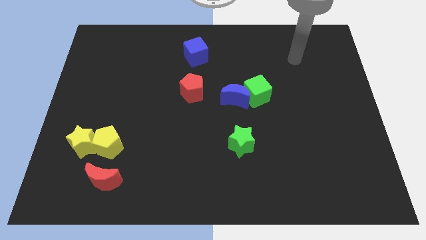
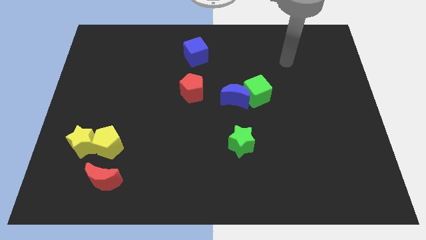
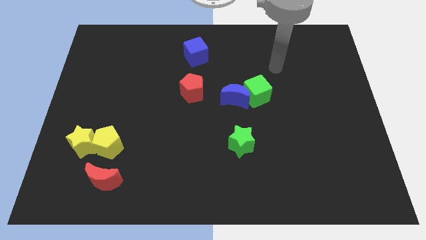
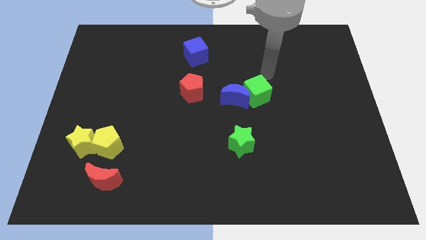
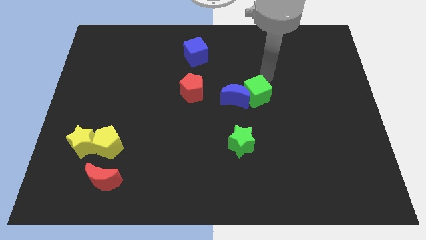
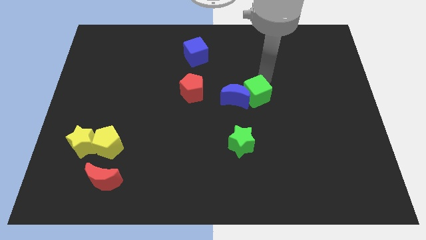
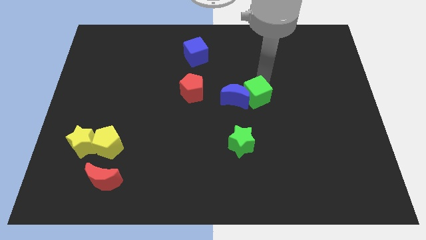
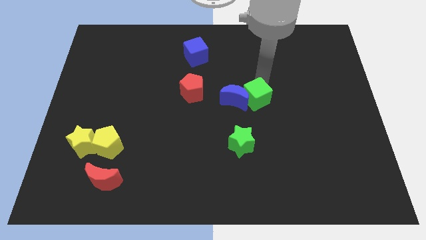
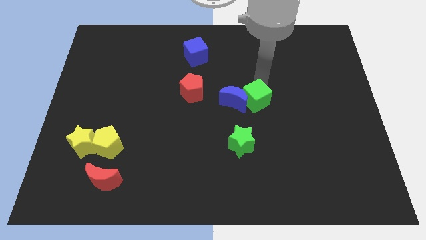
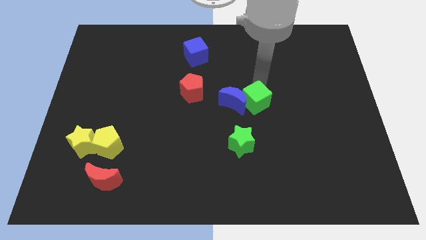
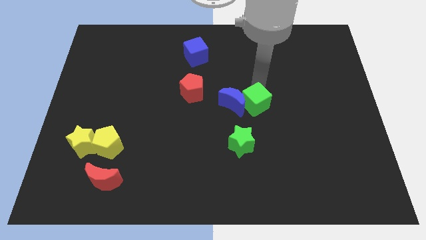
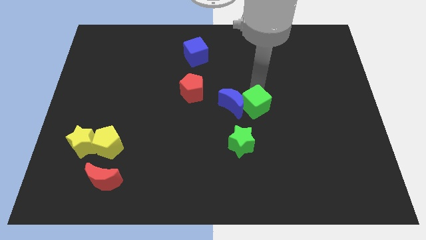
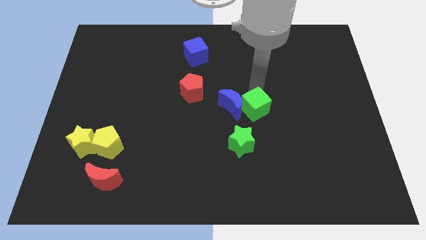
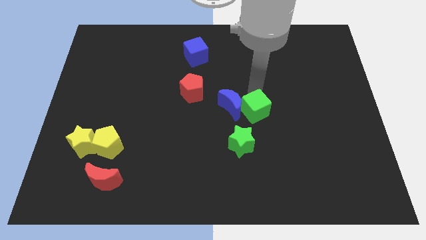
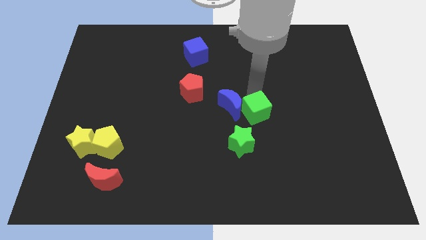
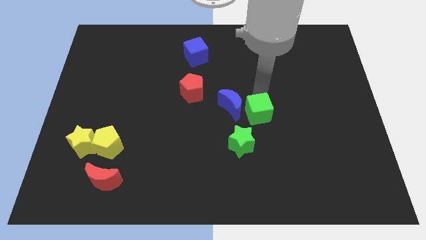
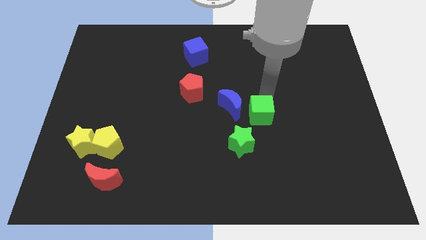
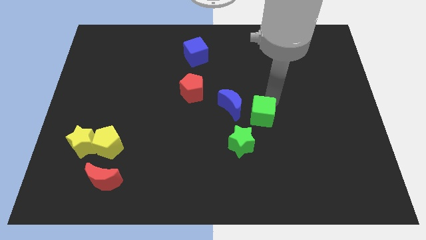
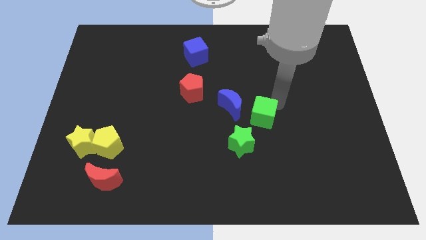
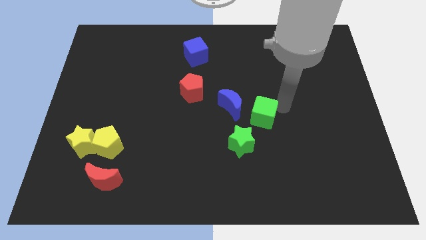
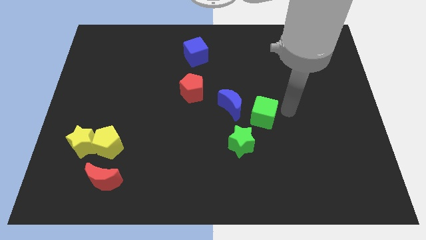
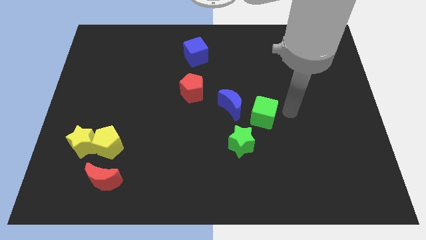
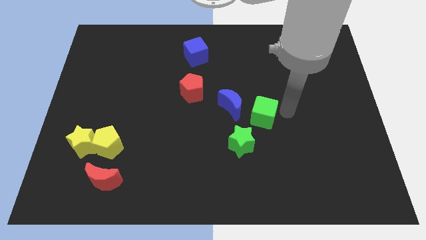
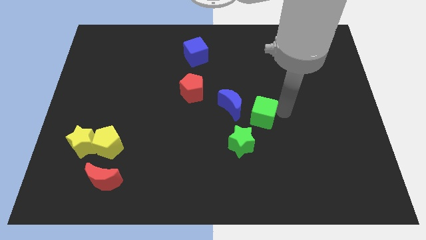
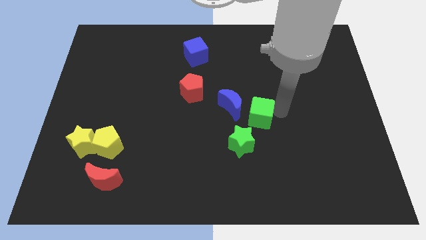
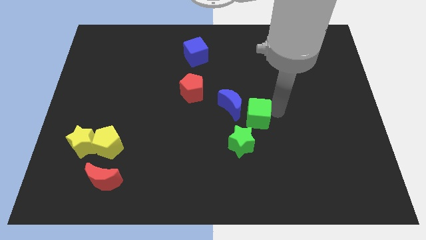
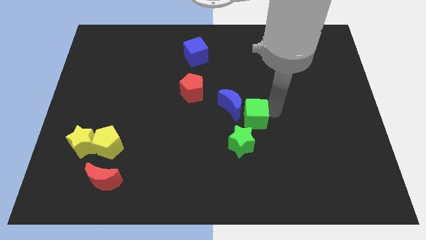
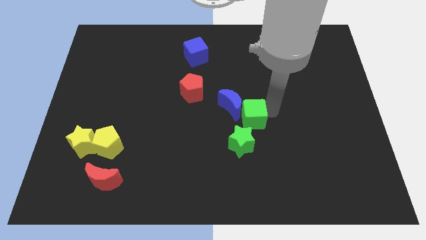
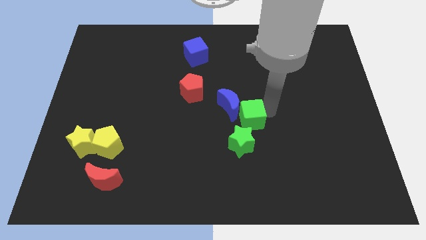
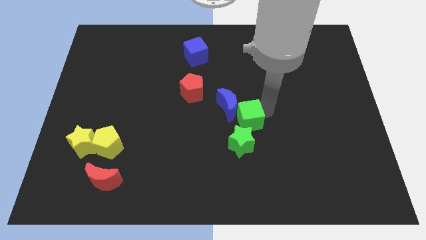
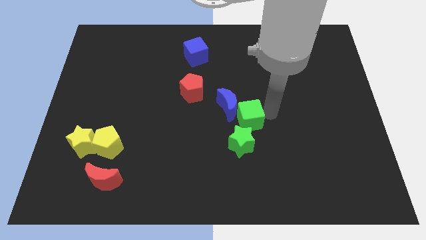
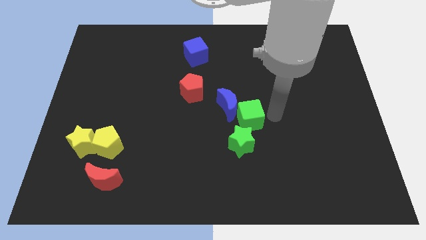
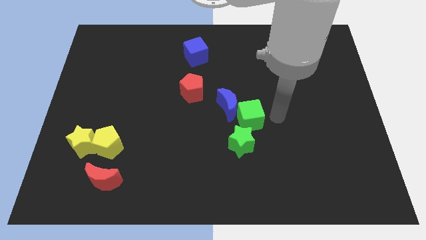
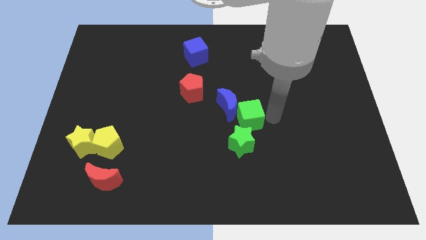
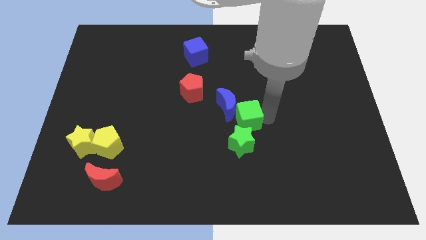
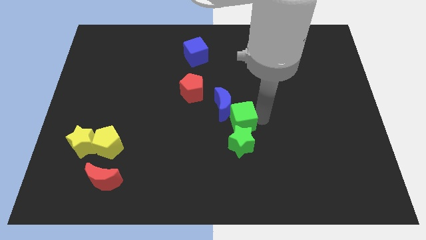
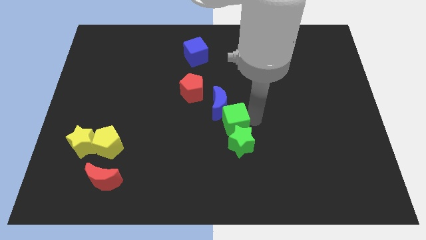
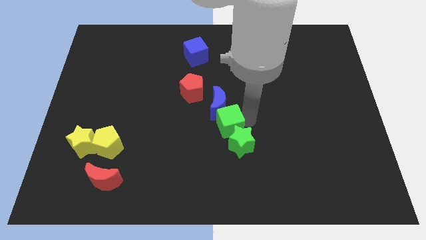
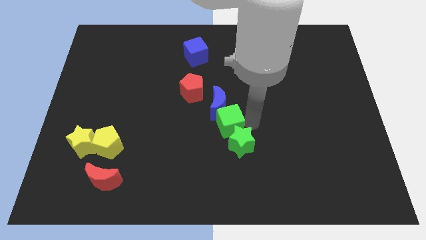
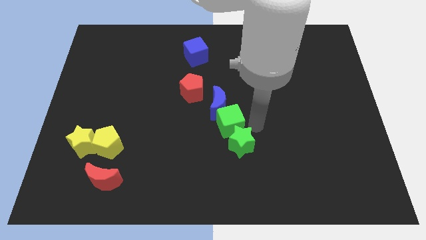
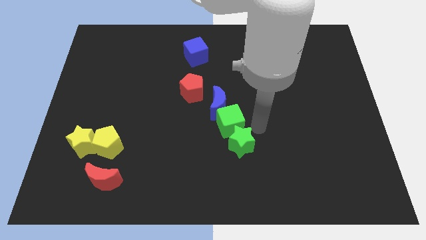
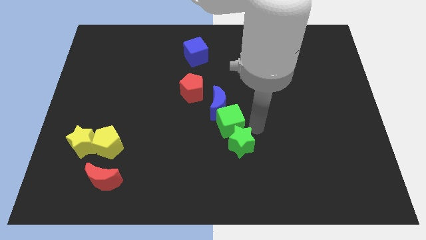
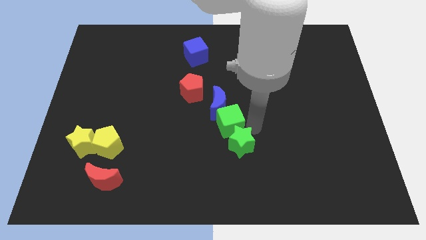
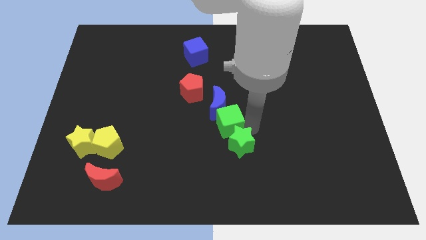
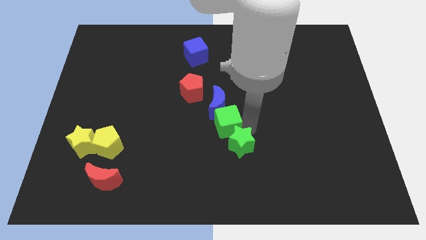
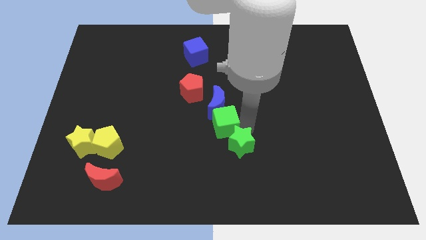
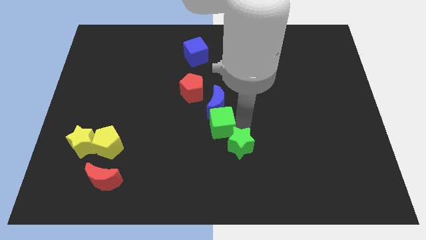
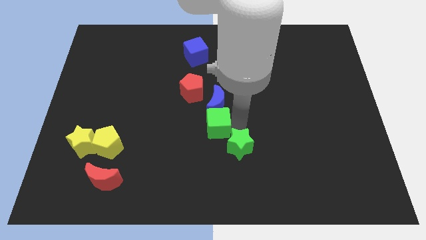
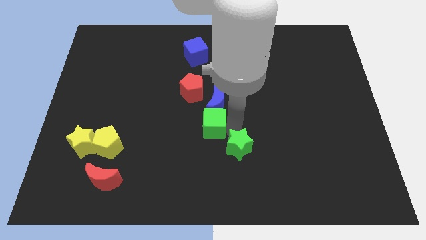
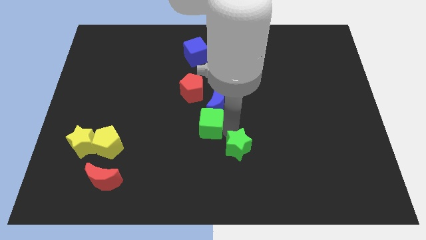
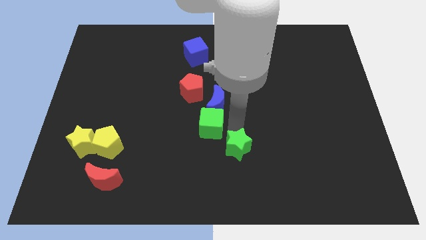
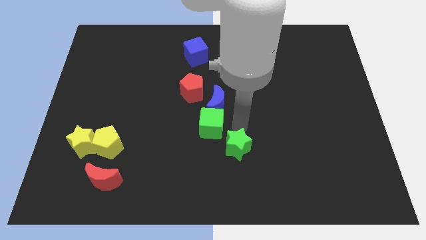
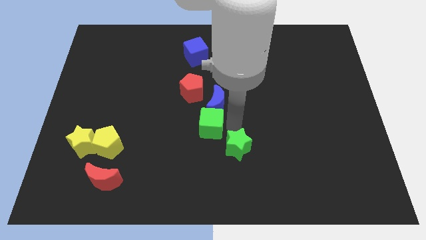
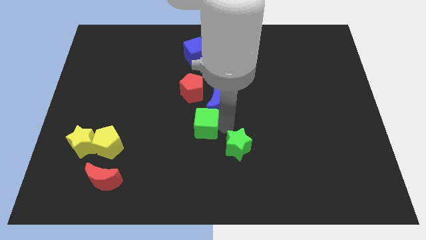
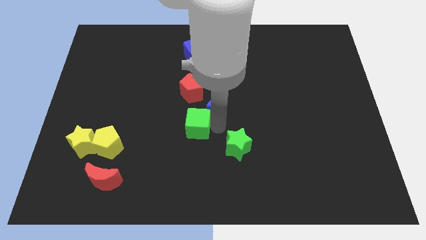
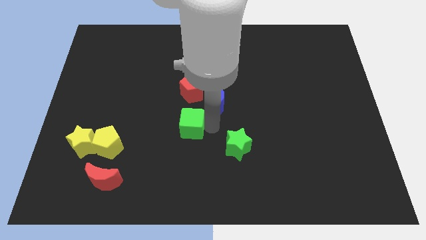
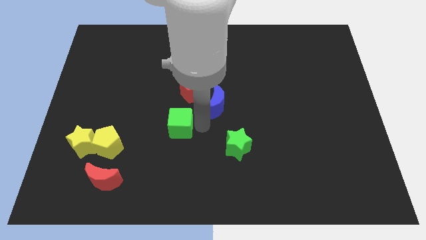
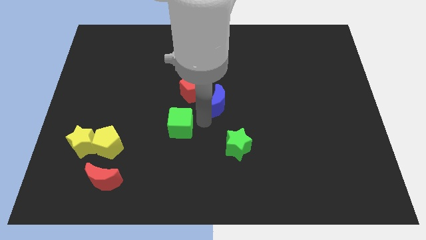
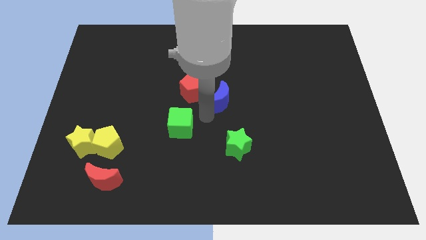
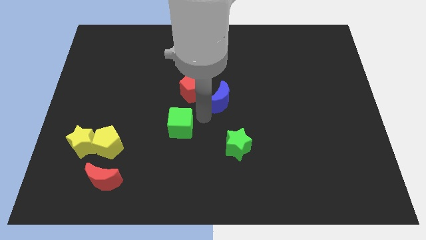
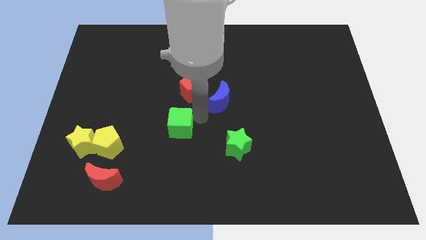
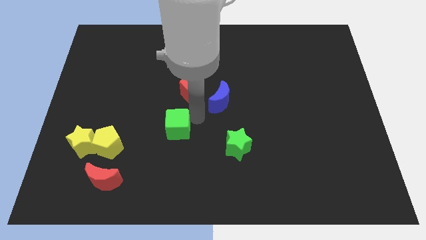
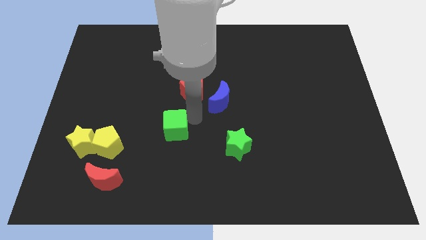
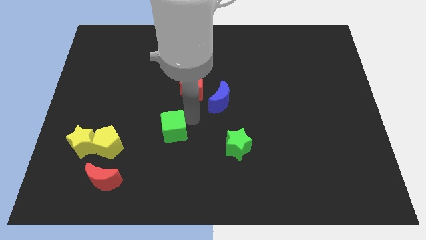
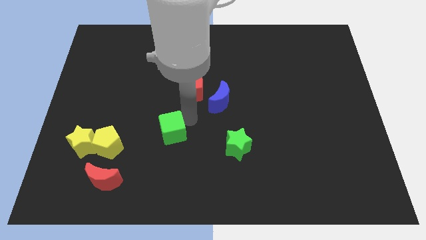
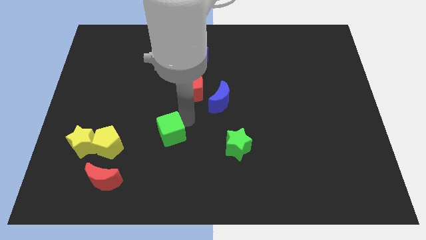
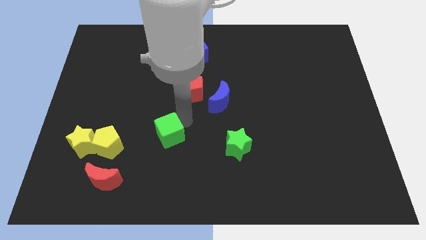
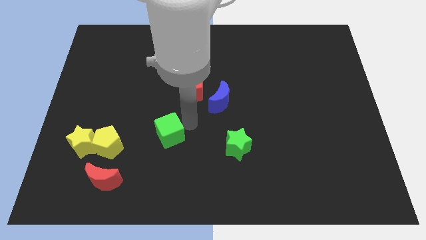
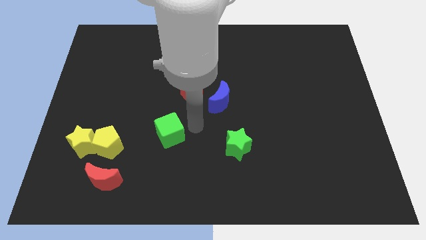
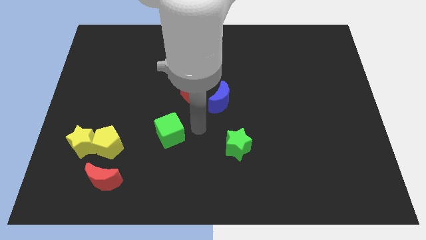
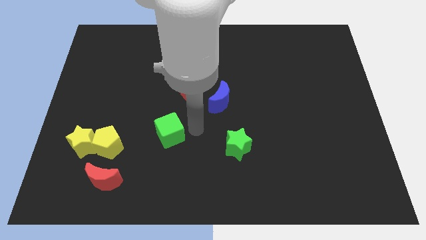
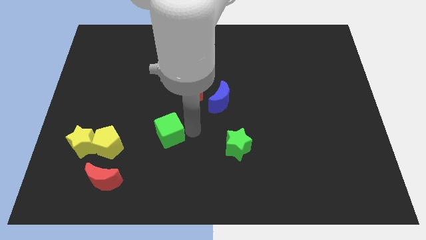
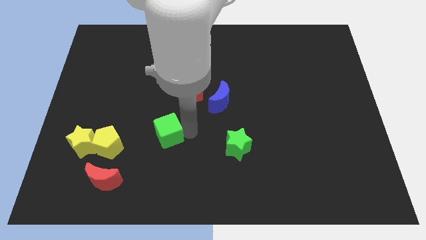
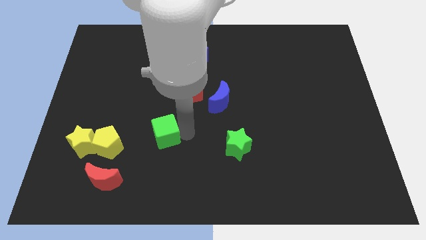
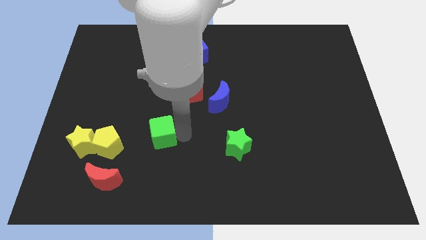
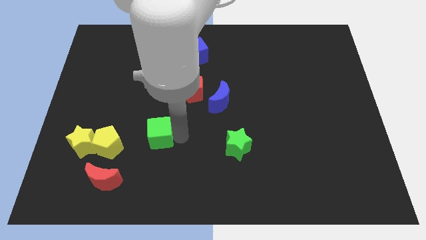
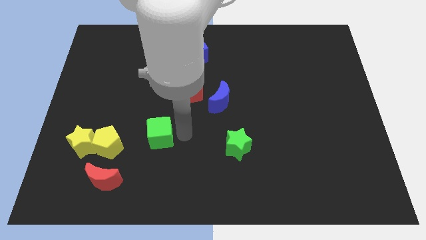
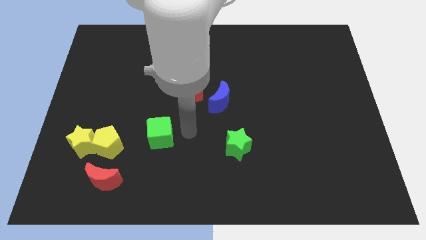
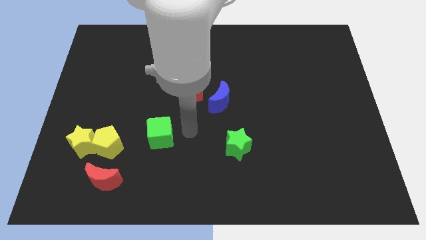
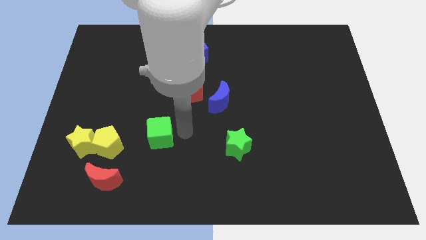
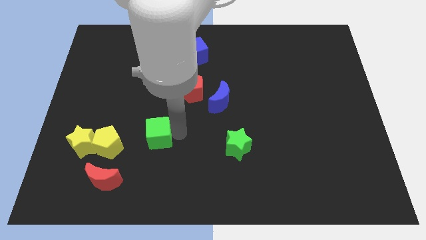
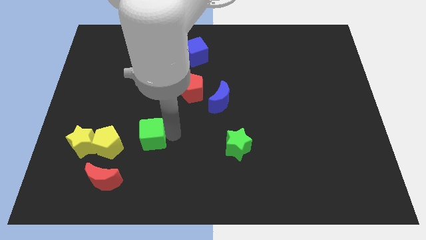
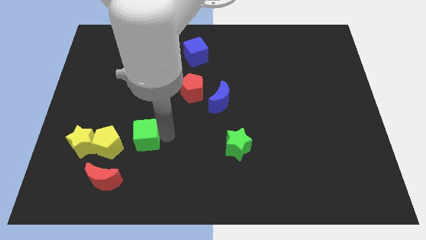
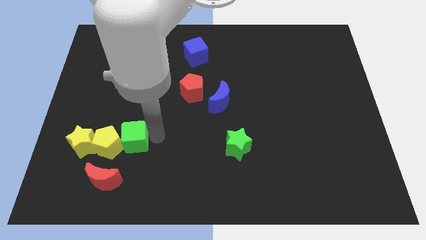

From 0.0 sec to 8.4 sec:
slide the green cube towards the yellow pentagon
